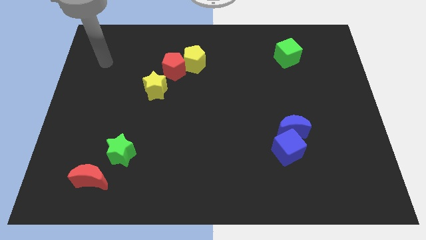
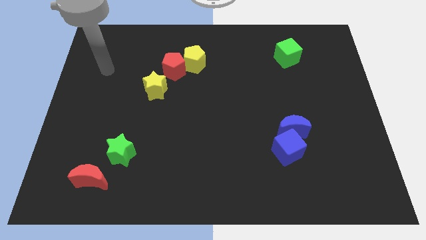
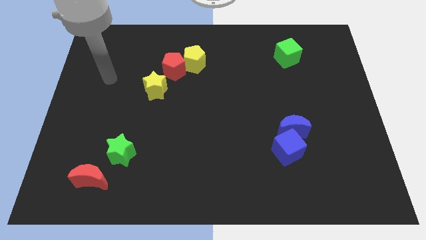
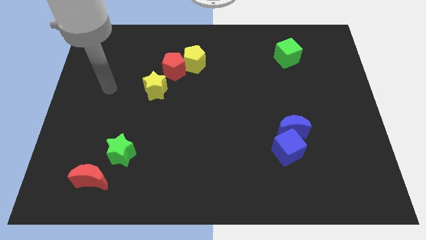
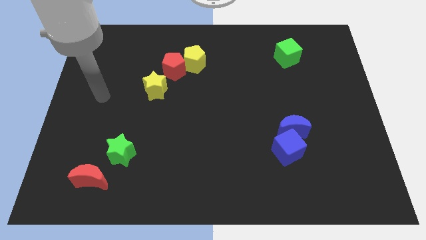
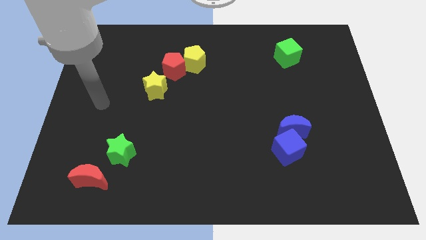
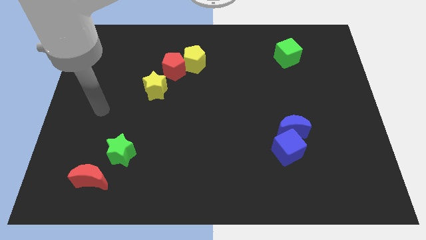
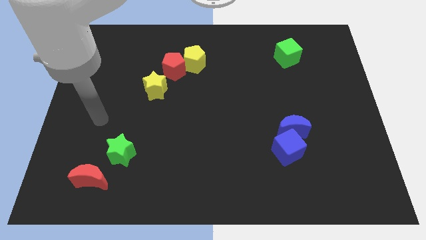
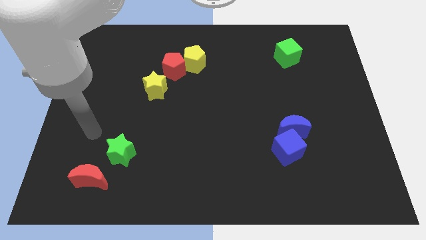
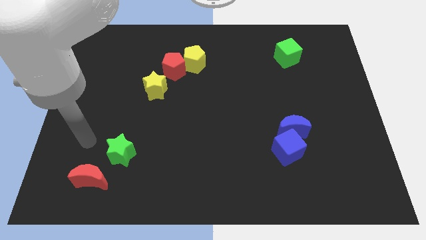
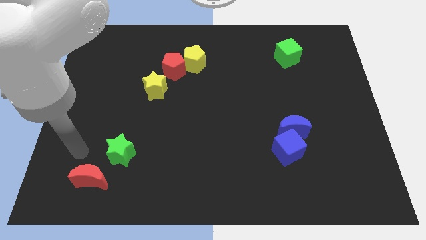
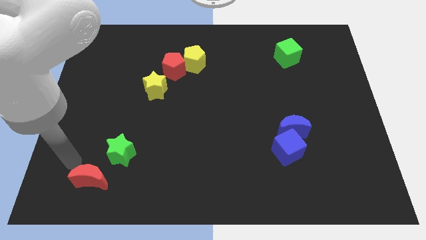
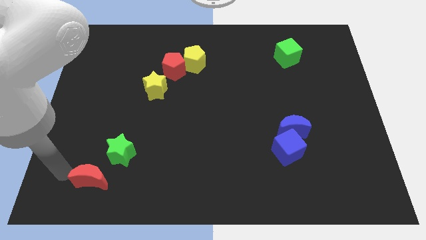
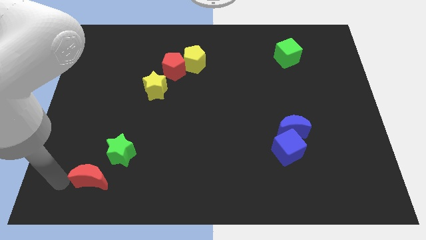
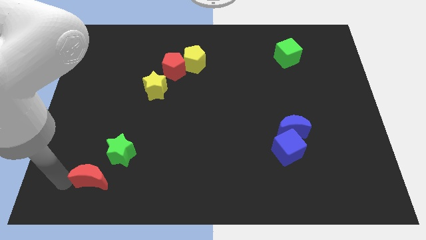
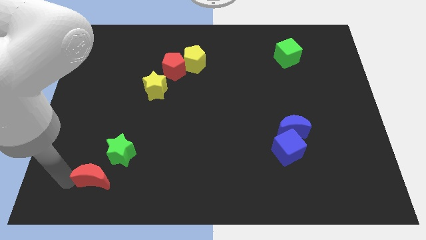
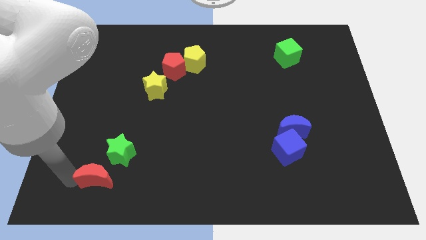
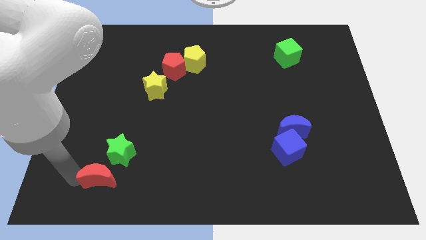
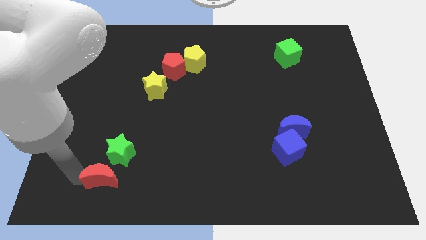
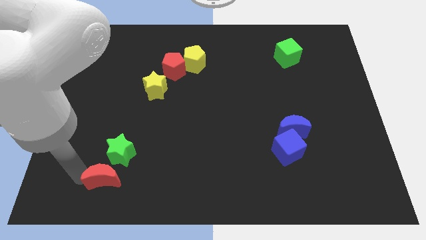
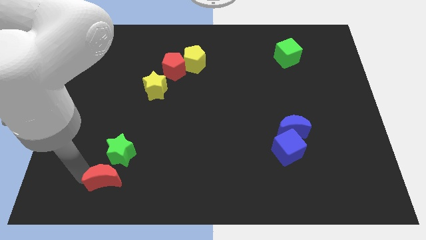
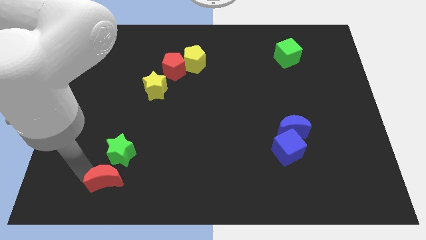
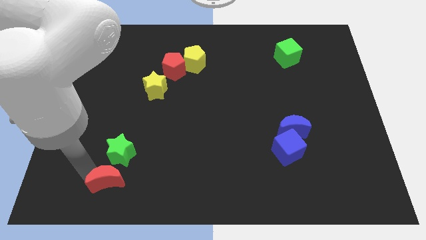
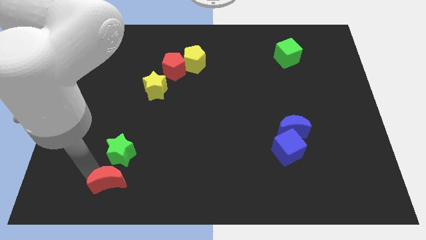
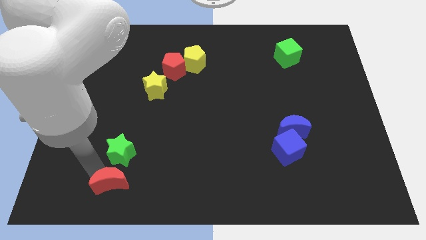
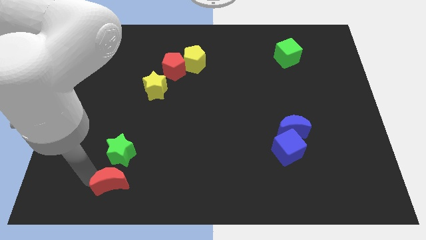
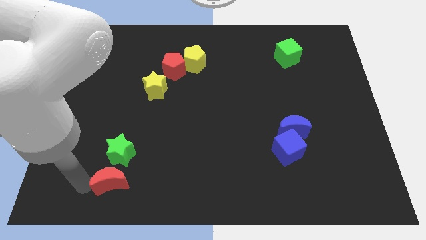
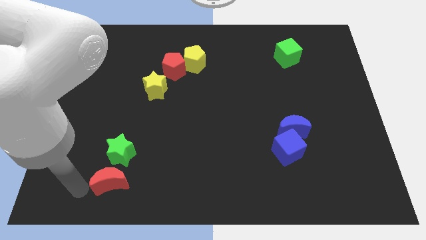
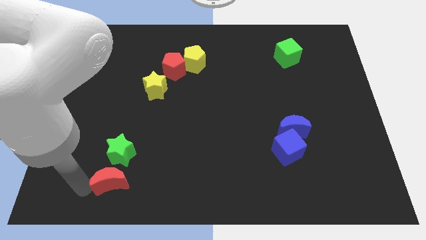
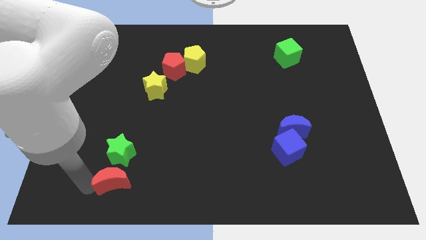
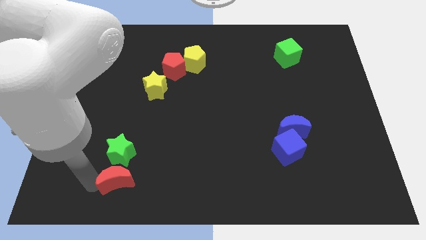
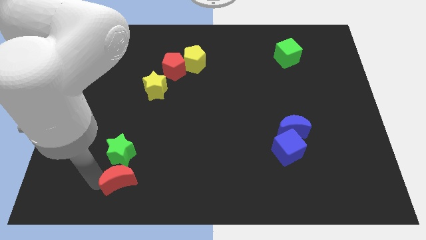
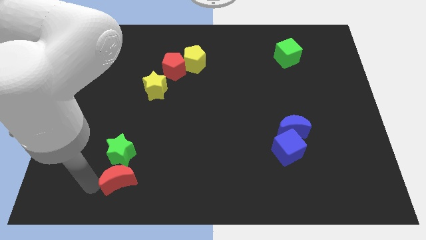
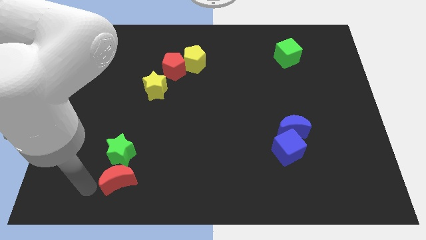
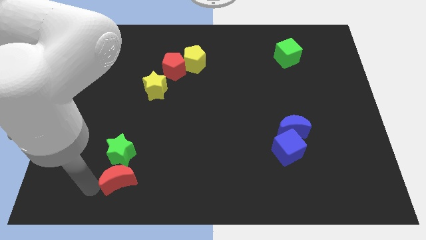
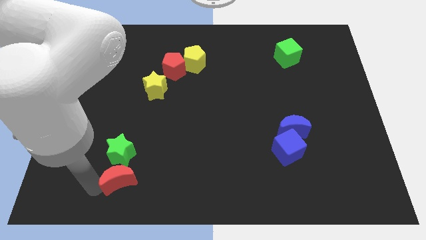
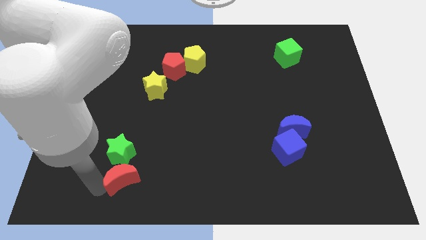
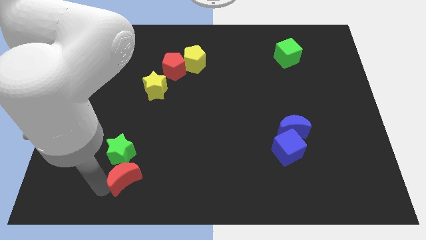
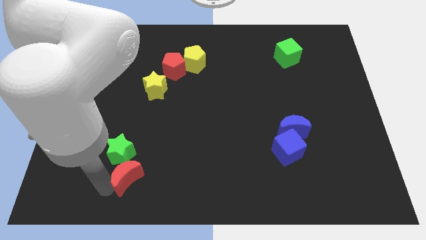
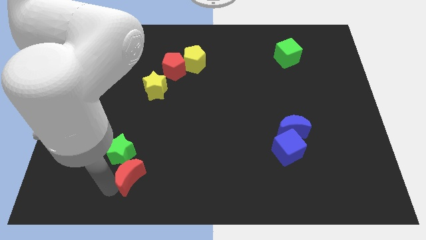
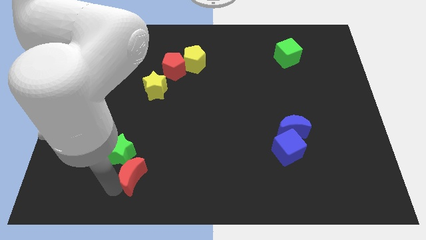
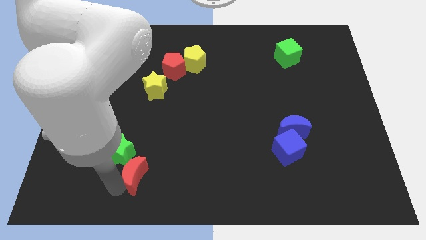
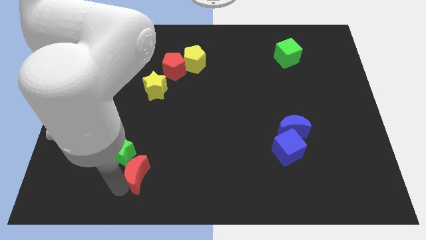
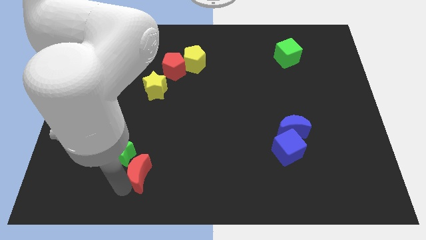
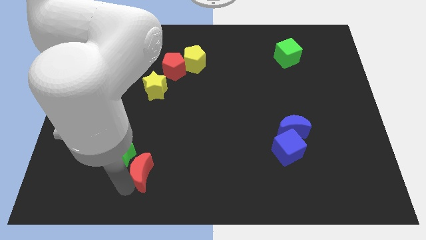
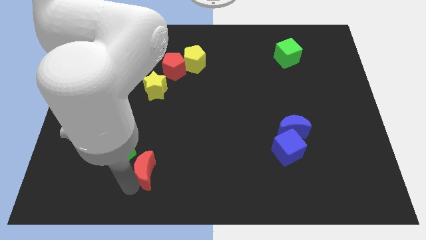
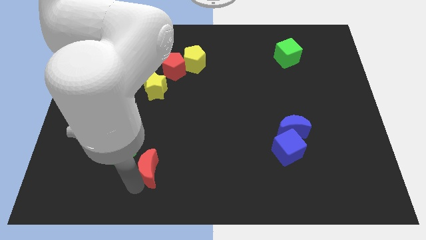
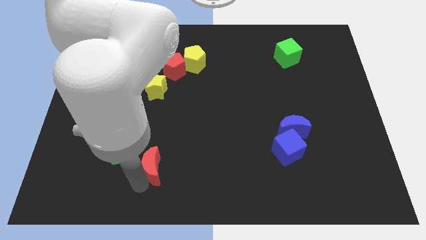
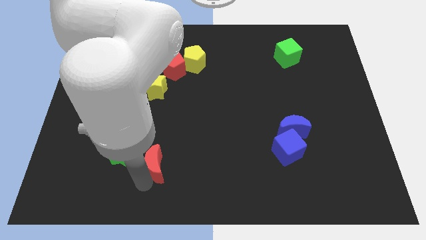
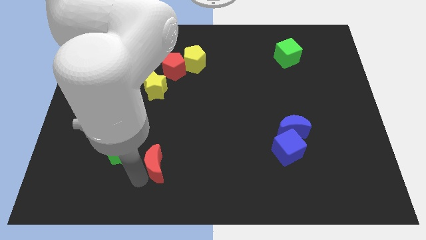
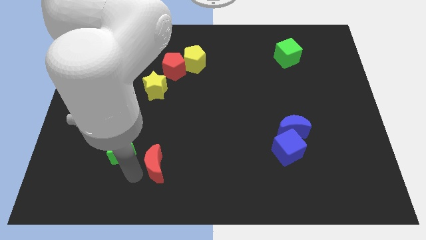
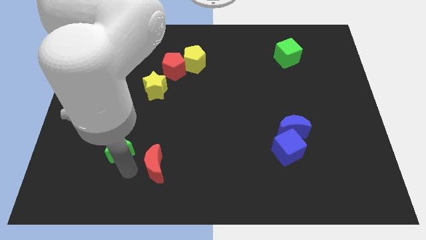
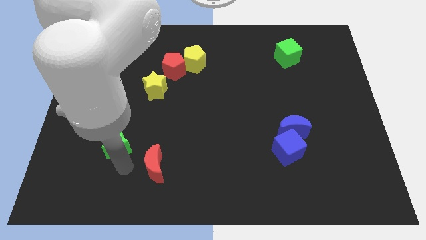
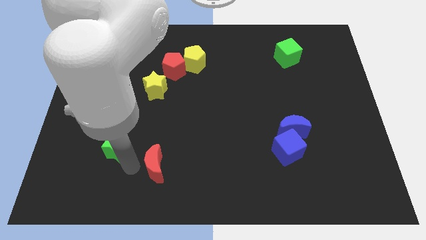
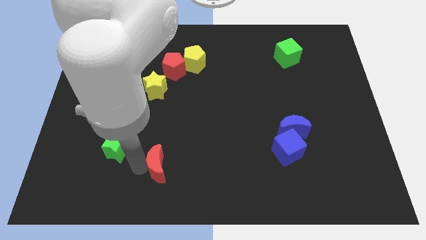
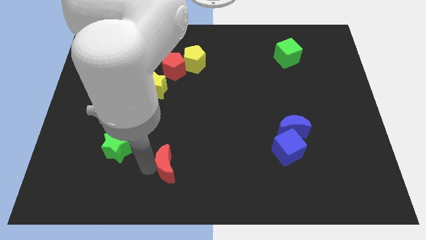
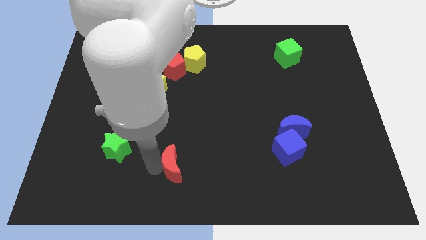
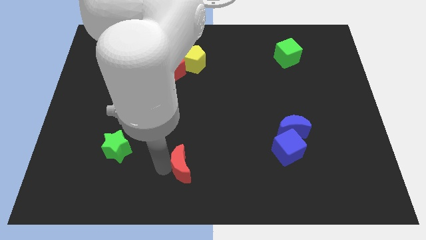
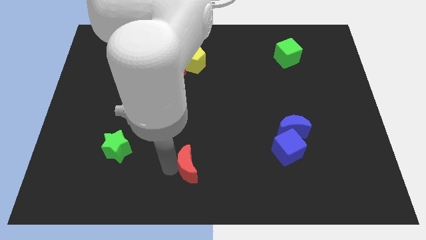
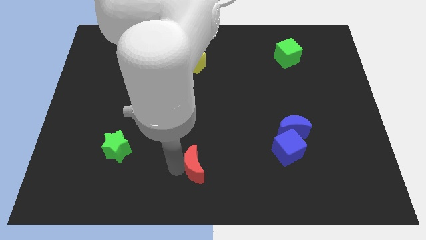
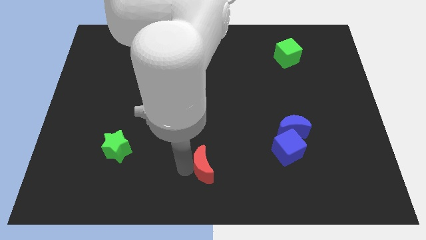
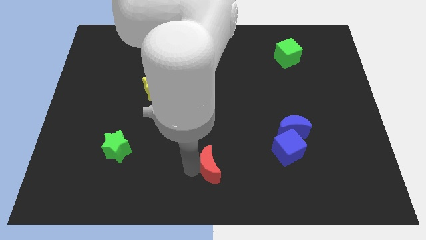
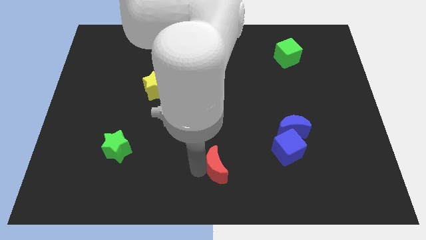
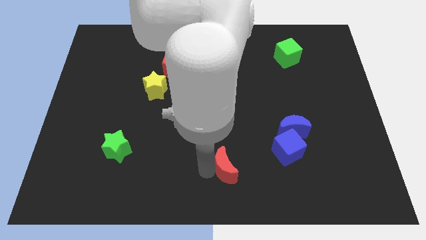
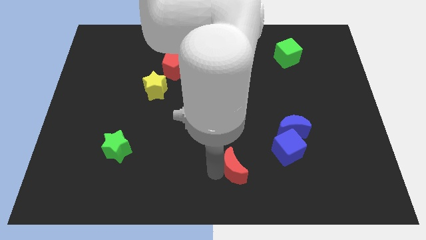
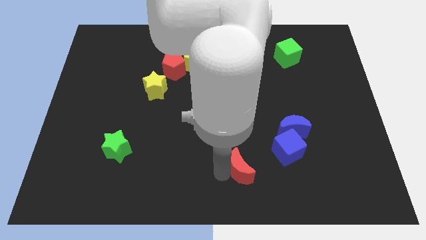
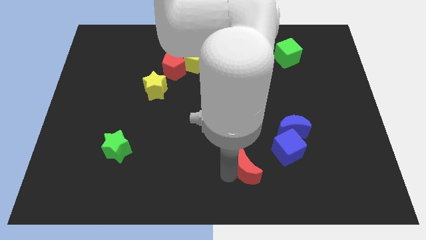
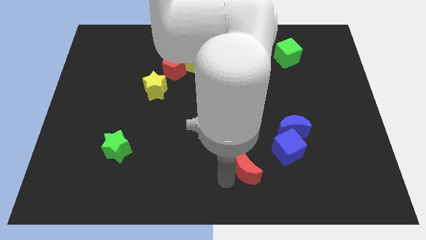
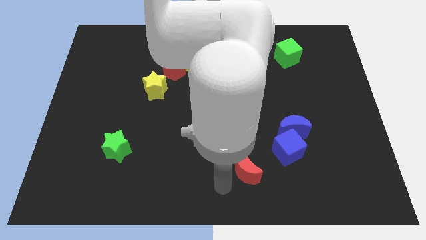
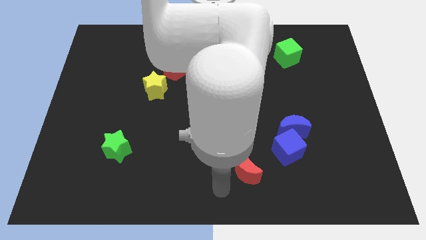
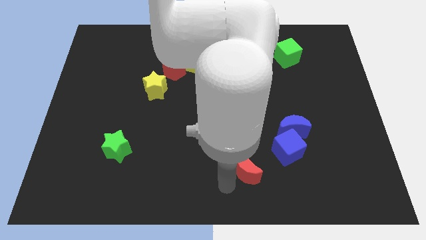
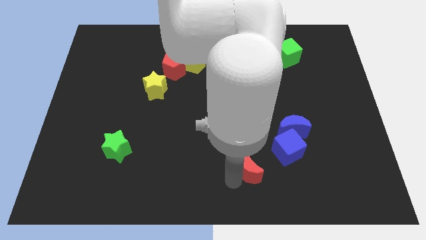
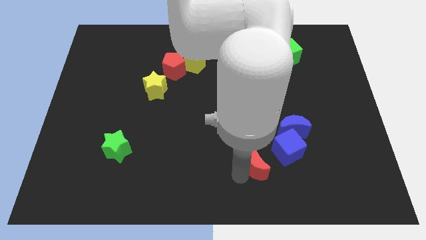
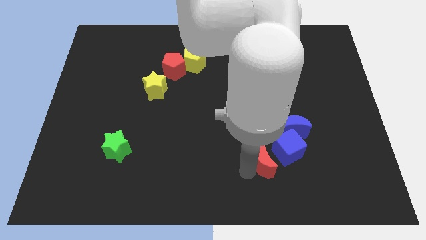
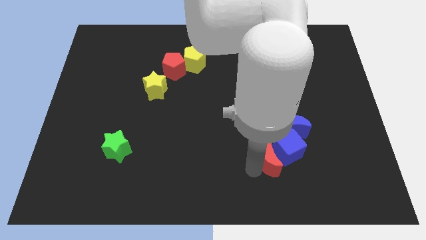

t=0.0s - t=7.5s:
put the red moon close to the blue cube
